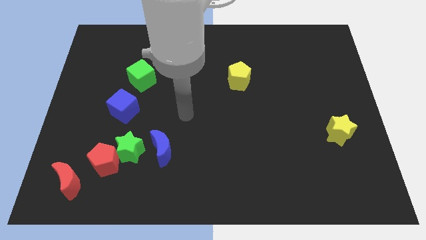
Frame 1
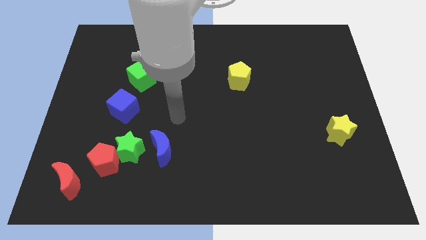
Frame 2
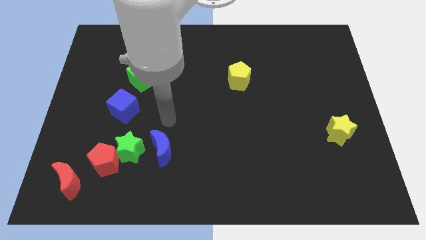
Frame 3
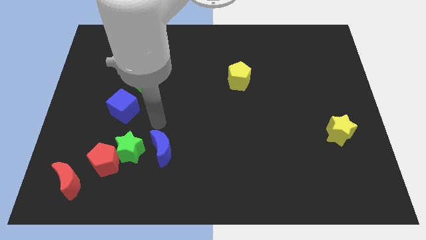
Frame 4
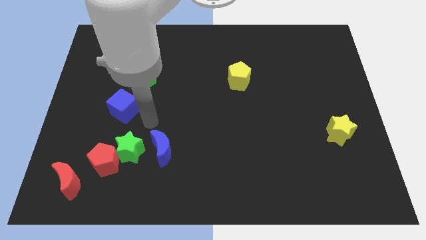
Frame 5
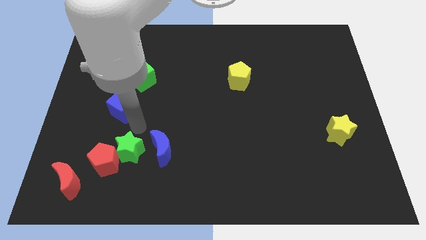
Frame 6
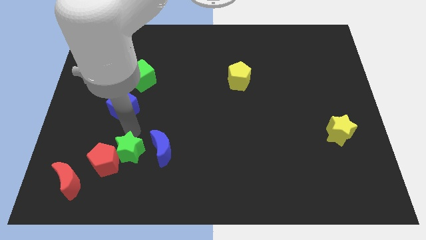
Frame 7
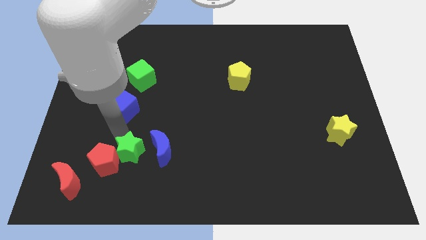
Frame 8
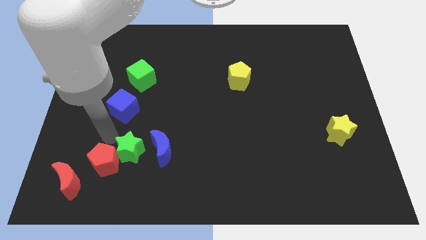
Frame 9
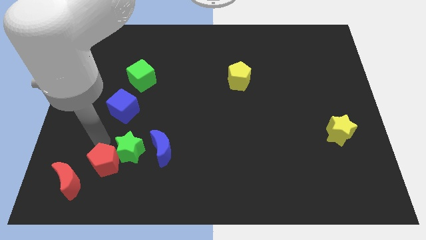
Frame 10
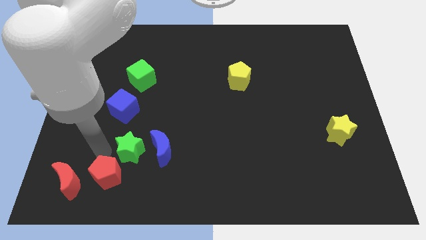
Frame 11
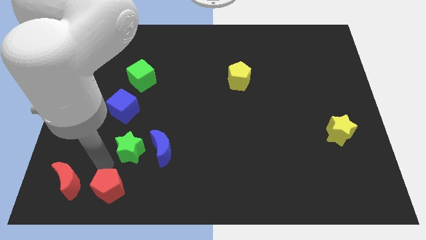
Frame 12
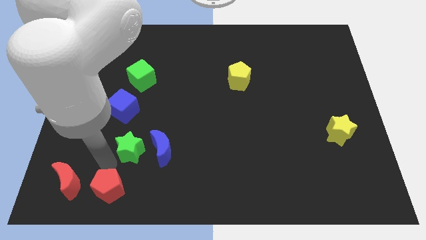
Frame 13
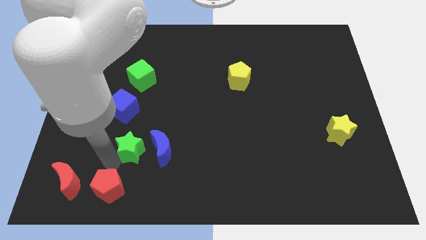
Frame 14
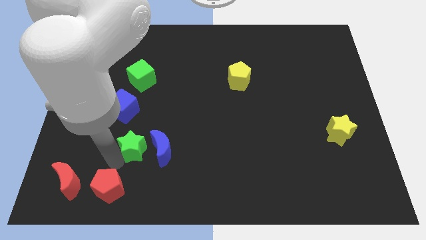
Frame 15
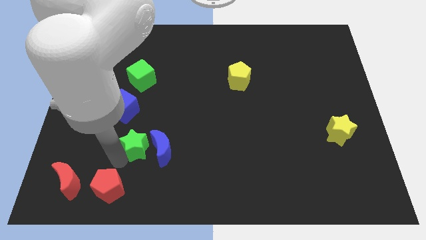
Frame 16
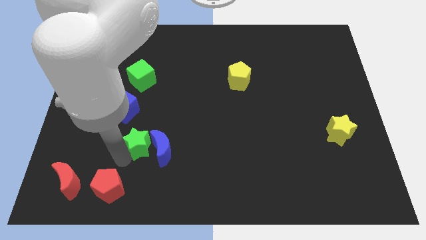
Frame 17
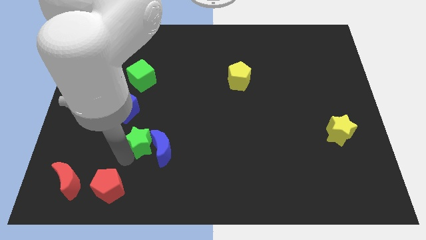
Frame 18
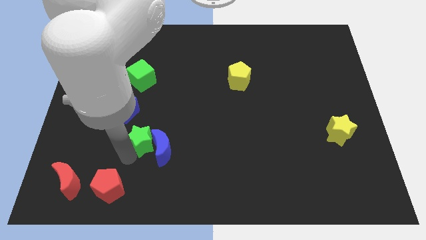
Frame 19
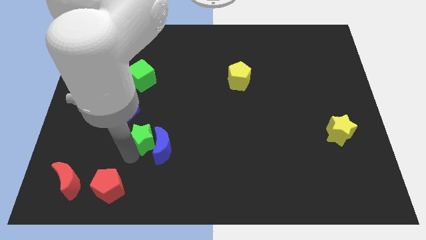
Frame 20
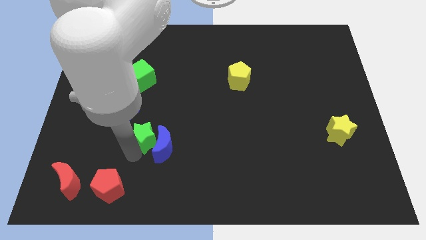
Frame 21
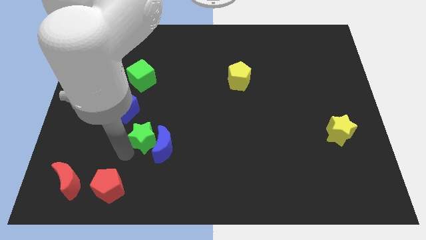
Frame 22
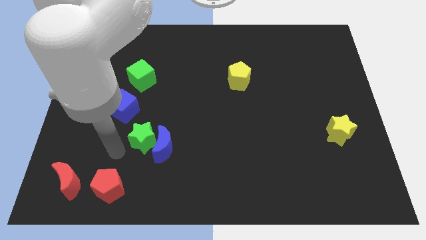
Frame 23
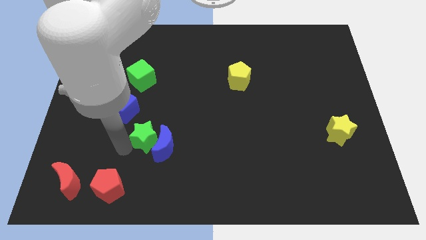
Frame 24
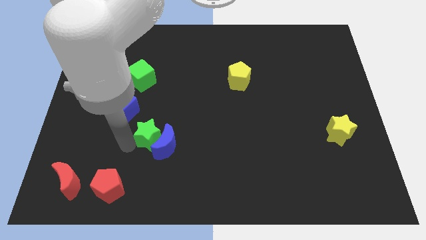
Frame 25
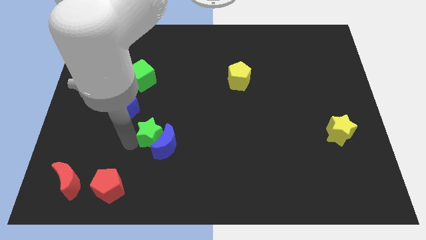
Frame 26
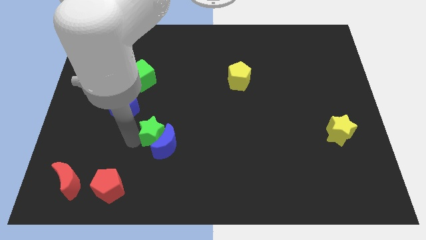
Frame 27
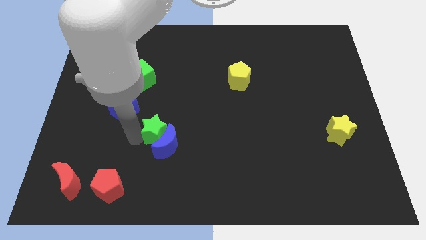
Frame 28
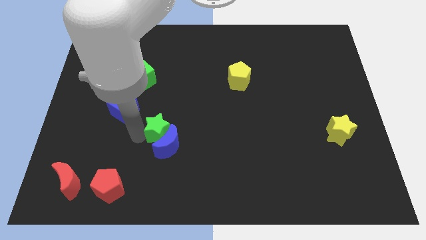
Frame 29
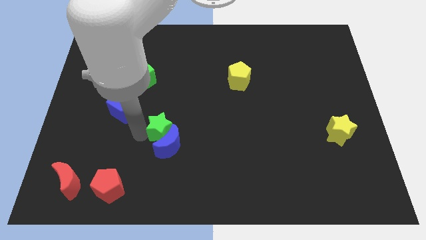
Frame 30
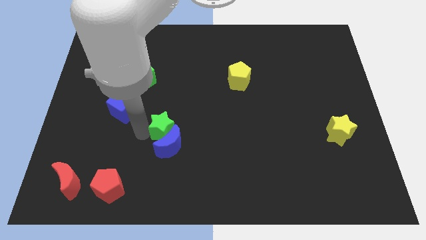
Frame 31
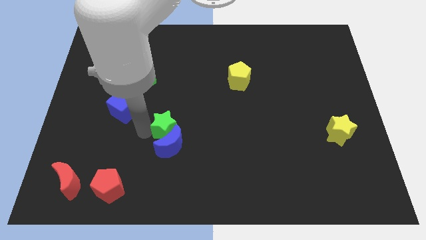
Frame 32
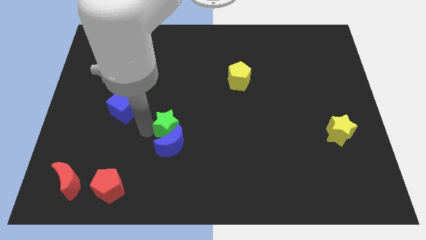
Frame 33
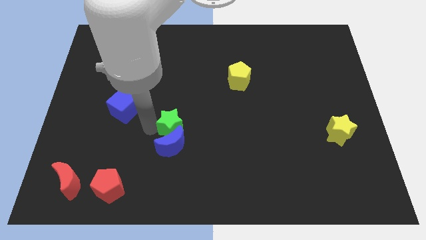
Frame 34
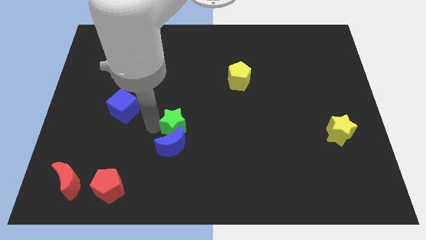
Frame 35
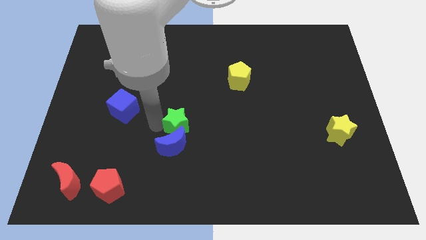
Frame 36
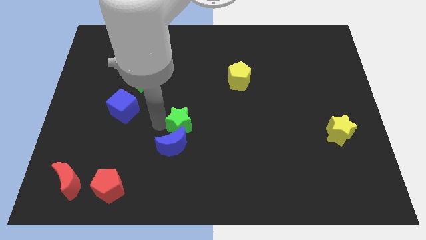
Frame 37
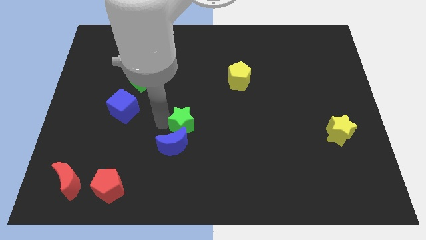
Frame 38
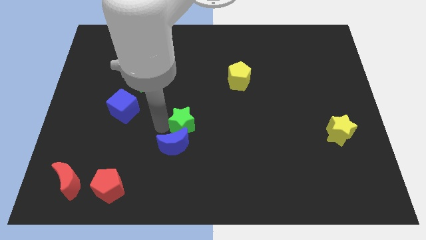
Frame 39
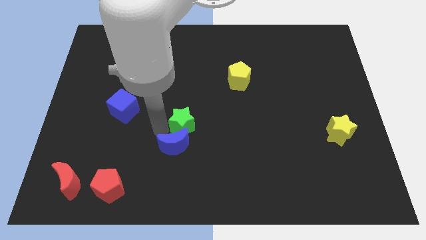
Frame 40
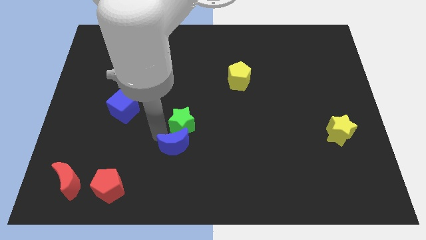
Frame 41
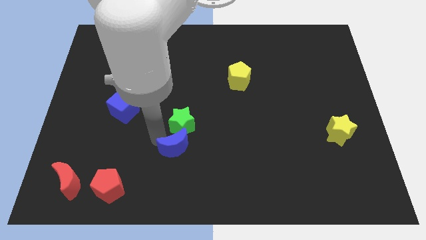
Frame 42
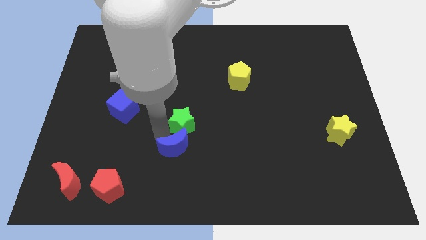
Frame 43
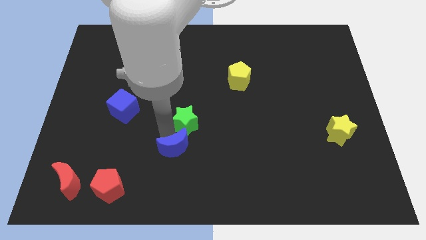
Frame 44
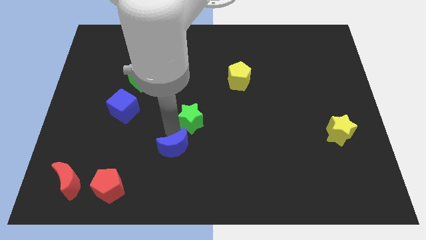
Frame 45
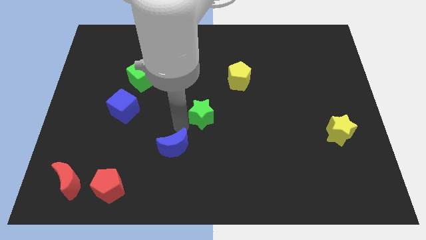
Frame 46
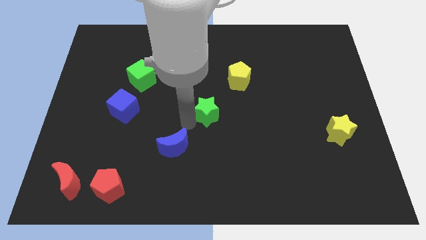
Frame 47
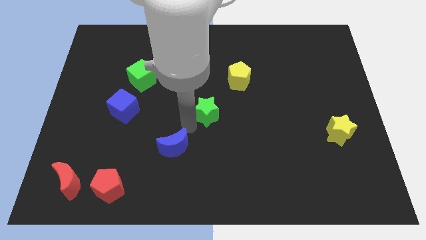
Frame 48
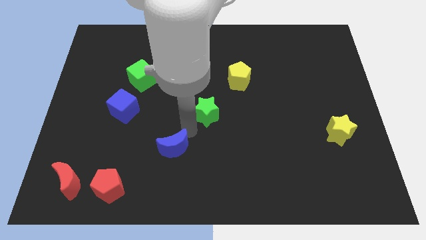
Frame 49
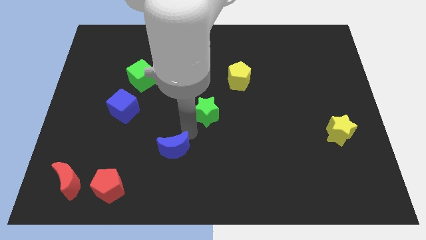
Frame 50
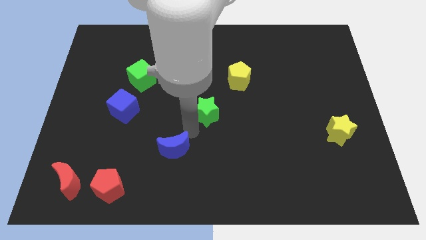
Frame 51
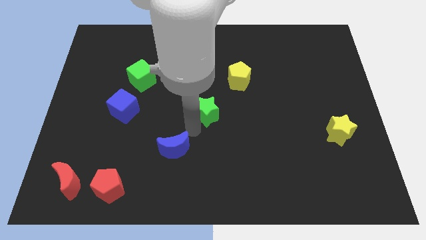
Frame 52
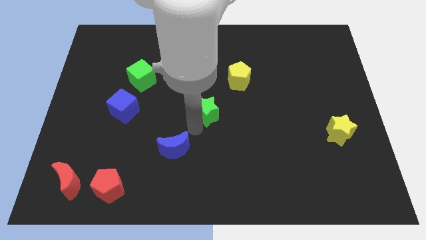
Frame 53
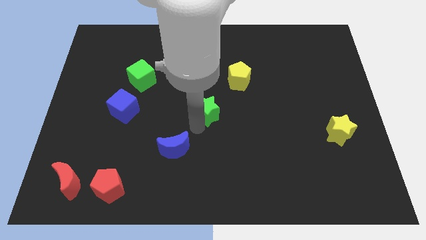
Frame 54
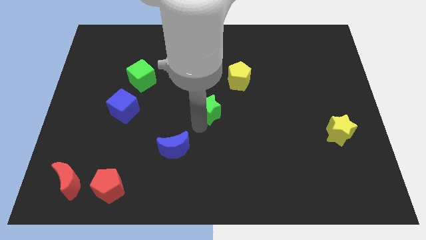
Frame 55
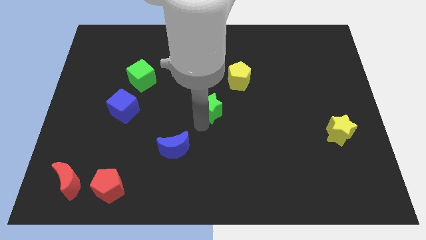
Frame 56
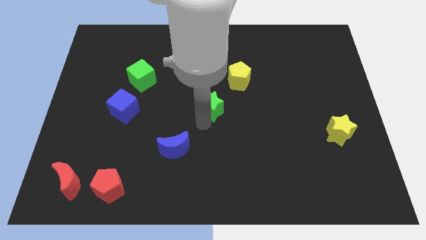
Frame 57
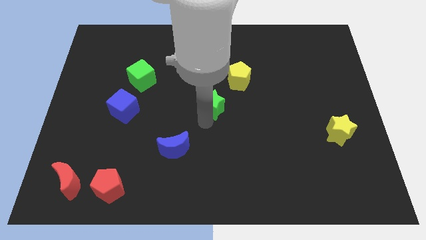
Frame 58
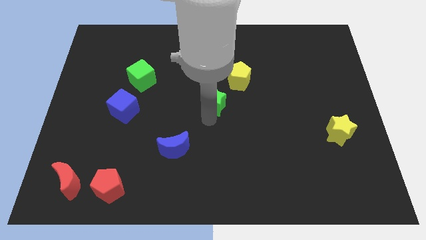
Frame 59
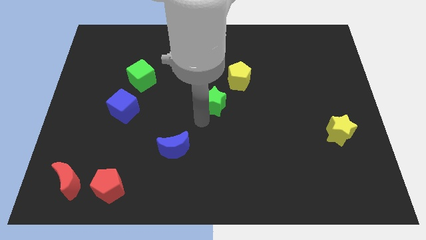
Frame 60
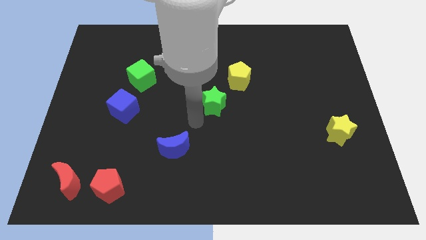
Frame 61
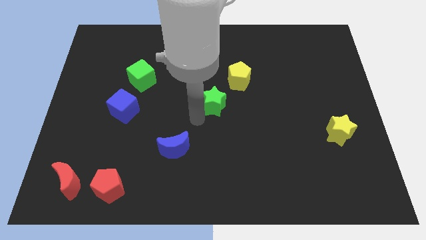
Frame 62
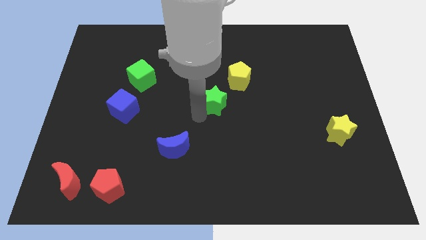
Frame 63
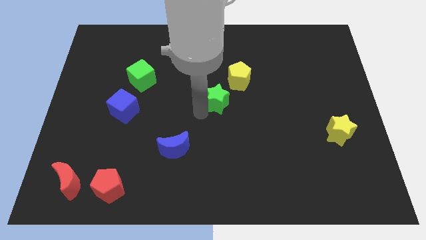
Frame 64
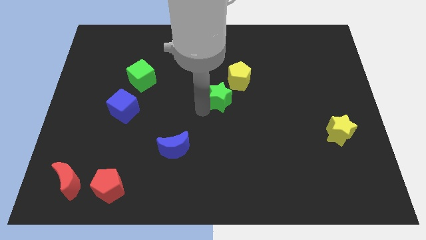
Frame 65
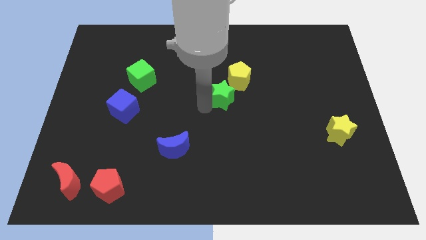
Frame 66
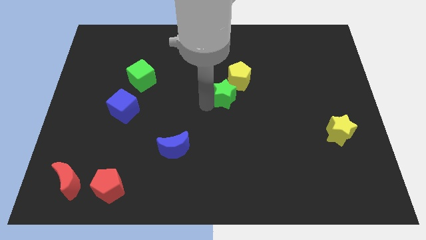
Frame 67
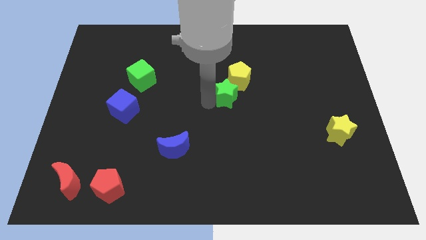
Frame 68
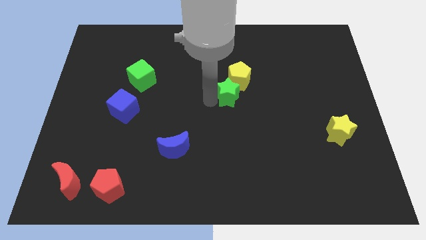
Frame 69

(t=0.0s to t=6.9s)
slide the green star to the yellow pentagon
